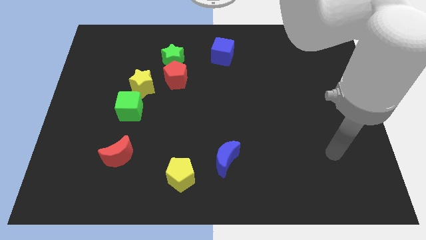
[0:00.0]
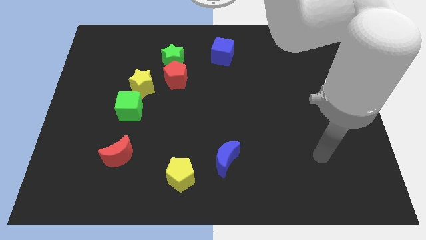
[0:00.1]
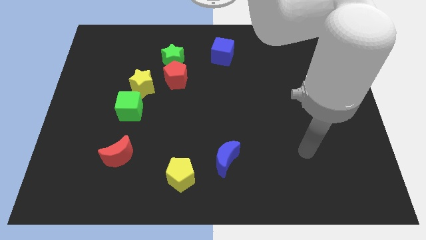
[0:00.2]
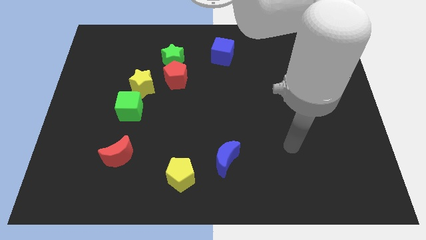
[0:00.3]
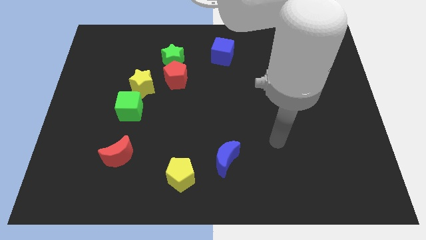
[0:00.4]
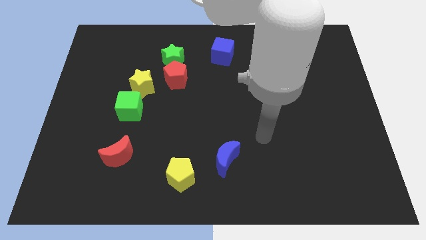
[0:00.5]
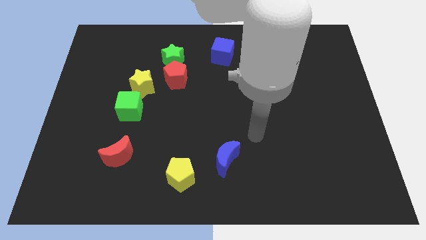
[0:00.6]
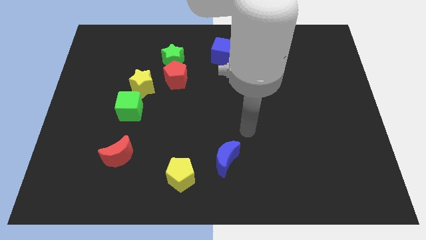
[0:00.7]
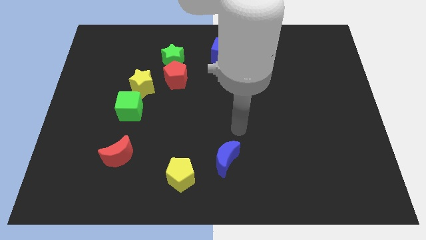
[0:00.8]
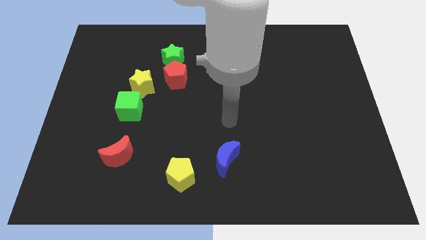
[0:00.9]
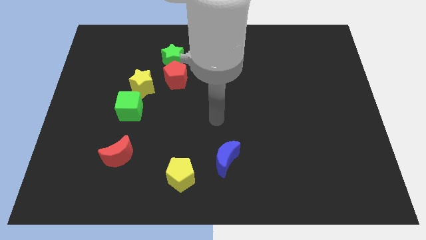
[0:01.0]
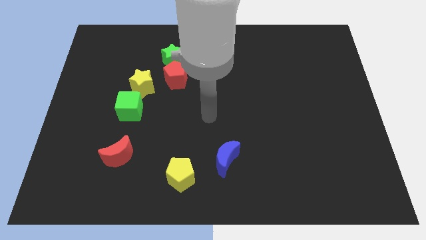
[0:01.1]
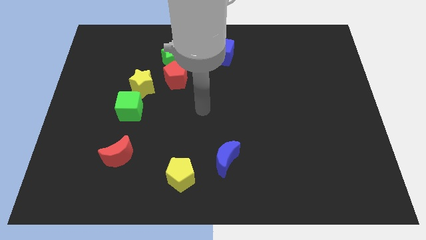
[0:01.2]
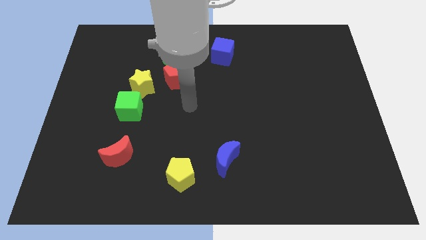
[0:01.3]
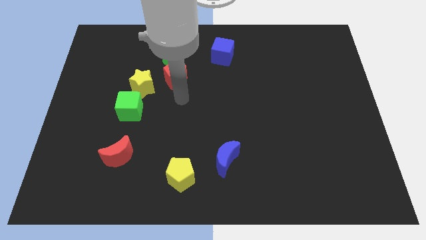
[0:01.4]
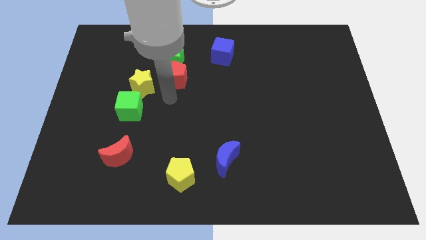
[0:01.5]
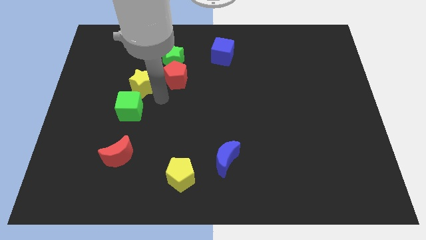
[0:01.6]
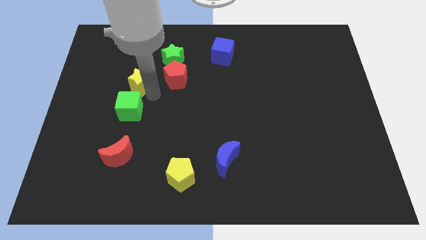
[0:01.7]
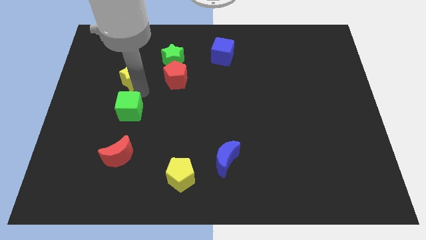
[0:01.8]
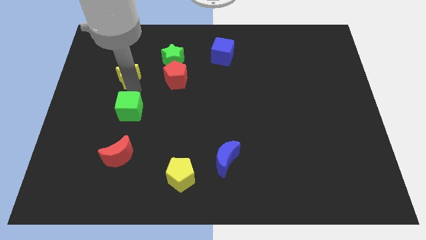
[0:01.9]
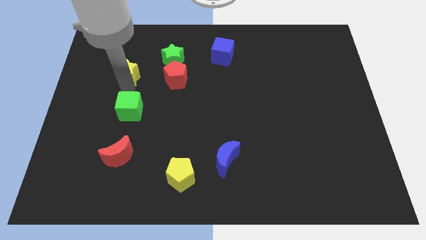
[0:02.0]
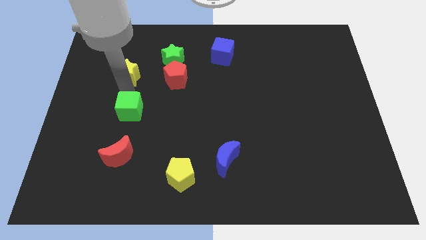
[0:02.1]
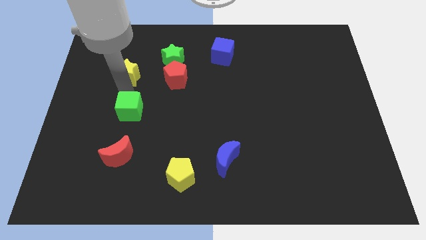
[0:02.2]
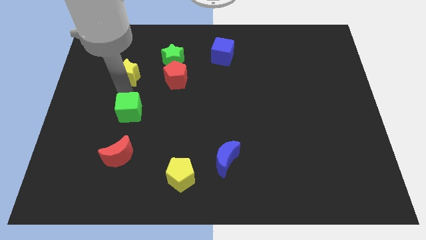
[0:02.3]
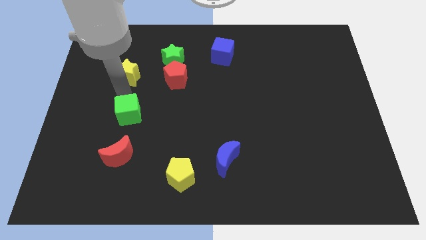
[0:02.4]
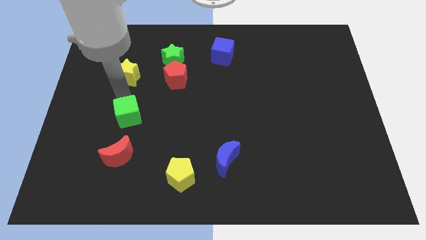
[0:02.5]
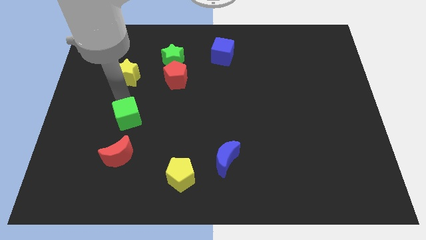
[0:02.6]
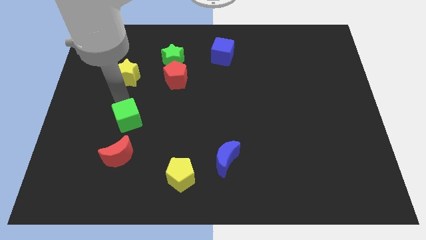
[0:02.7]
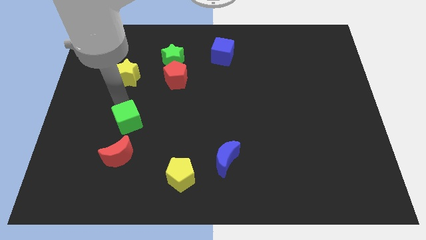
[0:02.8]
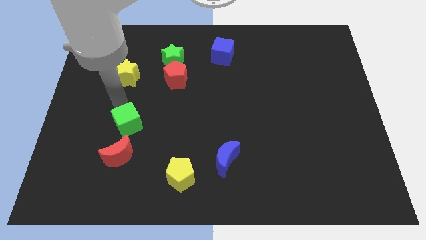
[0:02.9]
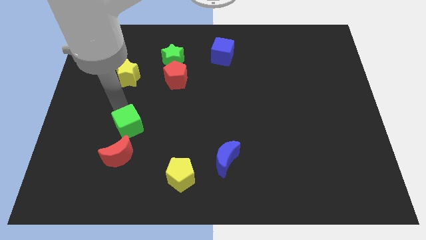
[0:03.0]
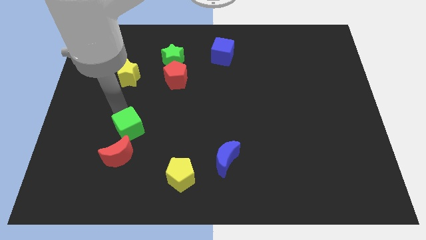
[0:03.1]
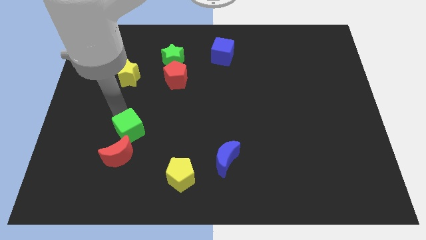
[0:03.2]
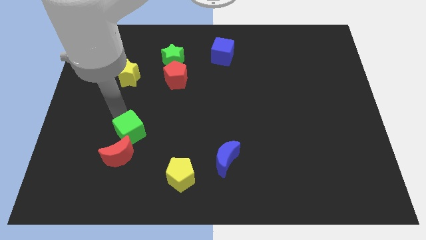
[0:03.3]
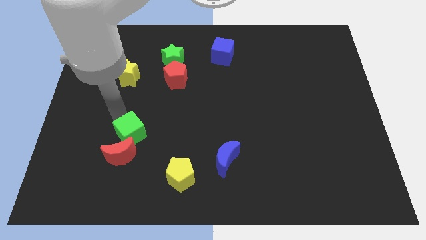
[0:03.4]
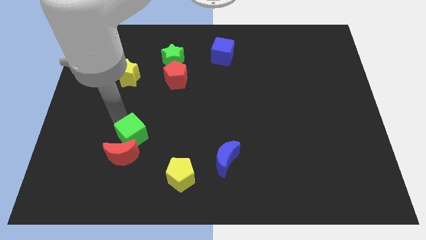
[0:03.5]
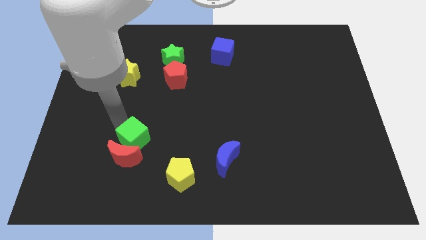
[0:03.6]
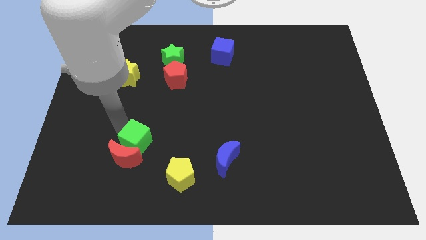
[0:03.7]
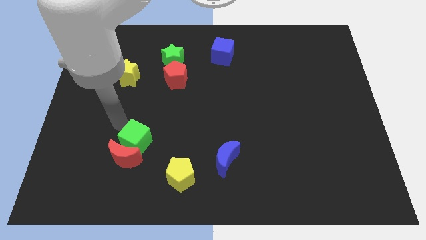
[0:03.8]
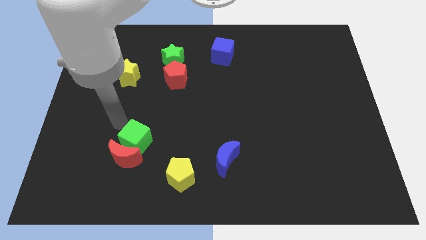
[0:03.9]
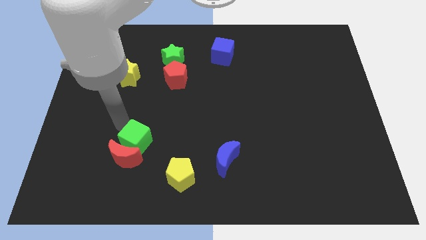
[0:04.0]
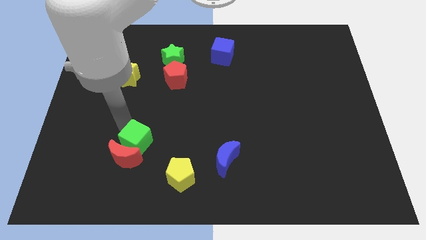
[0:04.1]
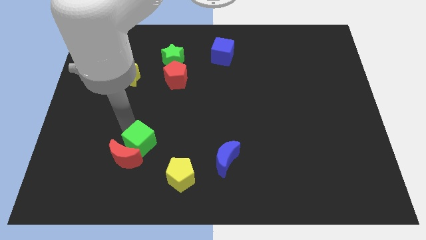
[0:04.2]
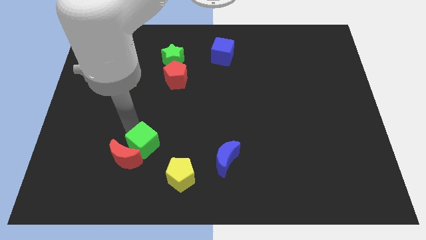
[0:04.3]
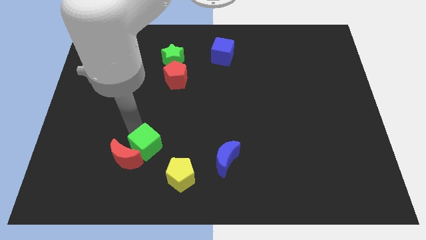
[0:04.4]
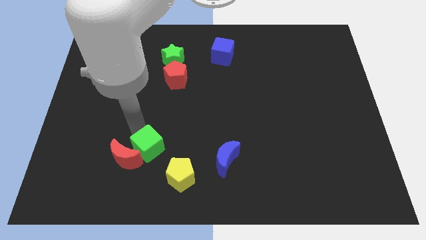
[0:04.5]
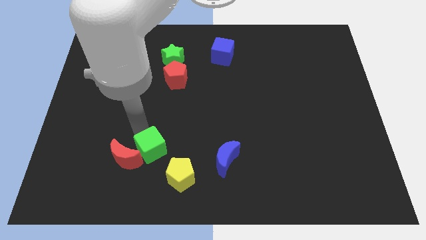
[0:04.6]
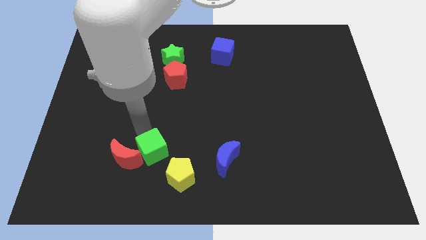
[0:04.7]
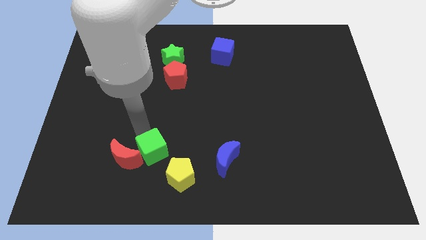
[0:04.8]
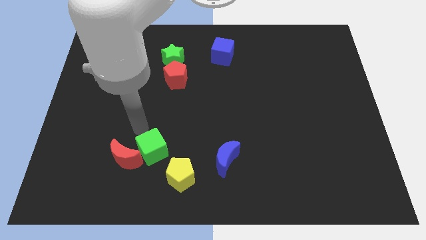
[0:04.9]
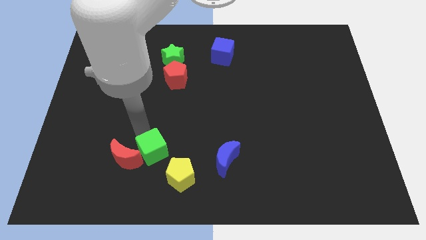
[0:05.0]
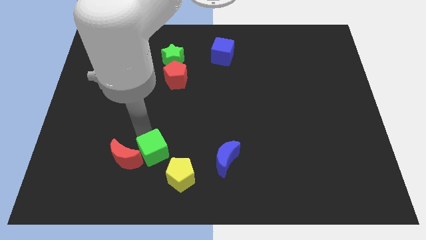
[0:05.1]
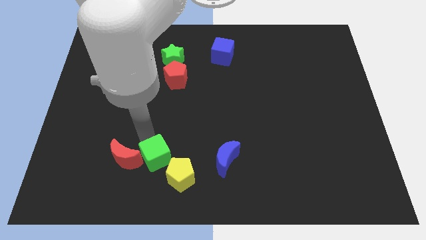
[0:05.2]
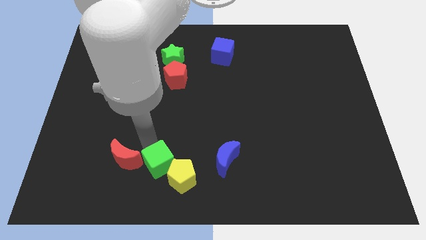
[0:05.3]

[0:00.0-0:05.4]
slide the green cube to the yellow pentagon

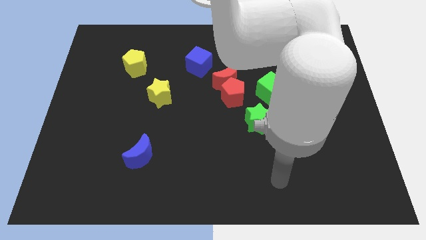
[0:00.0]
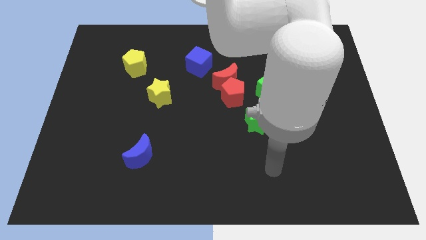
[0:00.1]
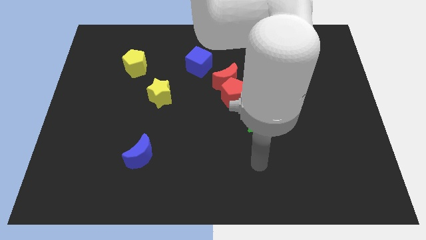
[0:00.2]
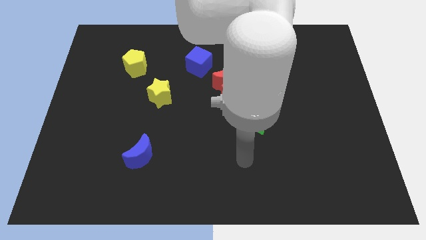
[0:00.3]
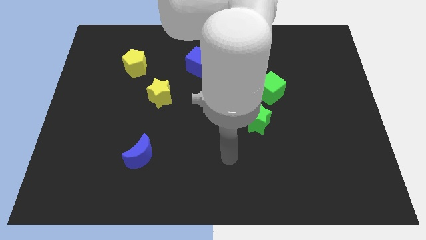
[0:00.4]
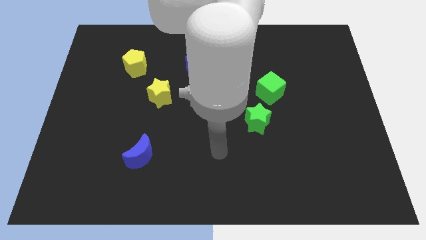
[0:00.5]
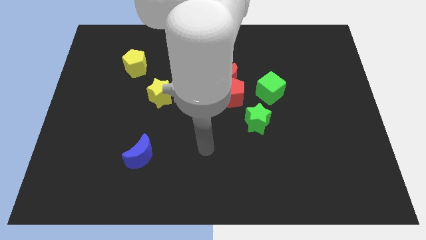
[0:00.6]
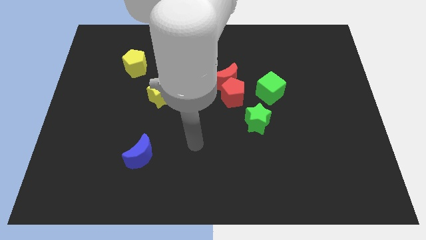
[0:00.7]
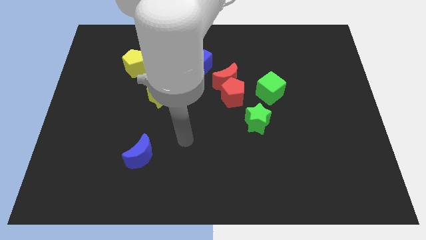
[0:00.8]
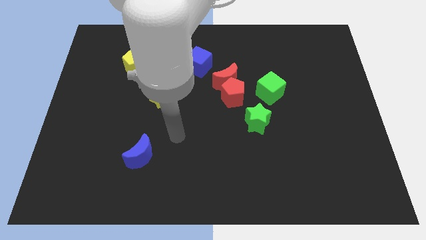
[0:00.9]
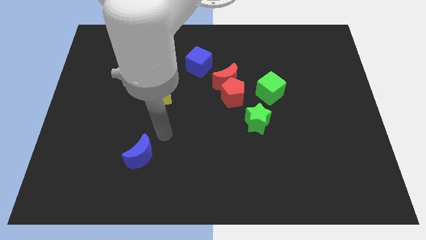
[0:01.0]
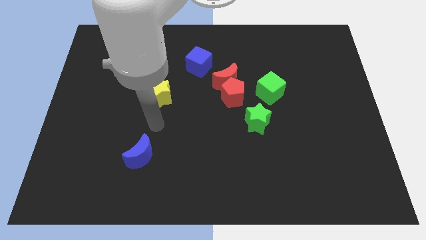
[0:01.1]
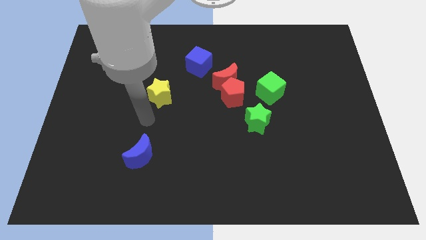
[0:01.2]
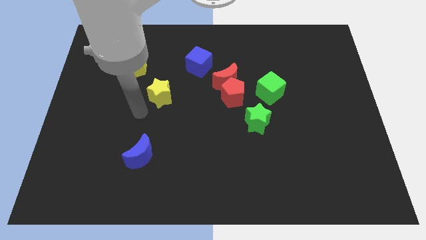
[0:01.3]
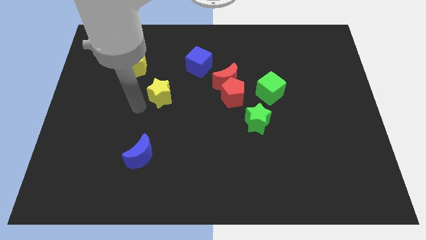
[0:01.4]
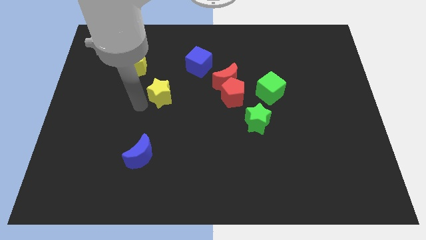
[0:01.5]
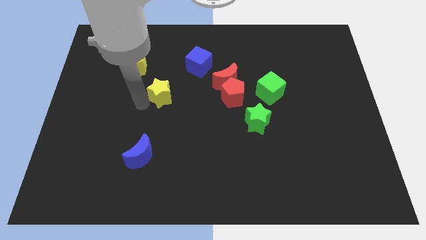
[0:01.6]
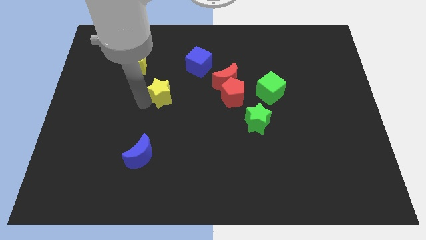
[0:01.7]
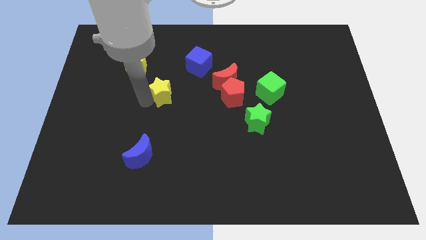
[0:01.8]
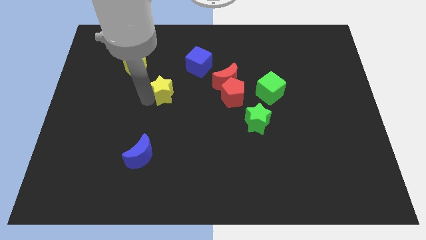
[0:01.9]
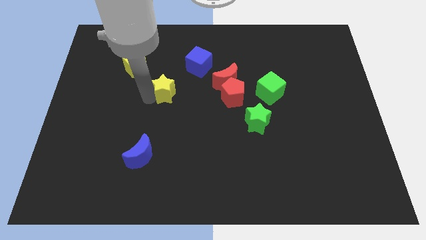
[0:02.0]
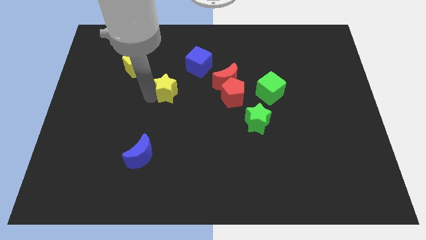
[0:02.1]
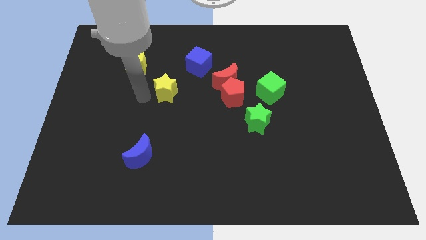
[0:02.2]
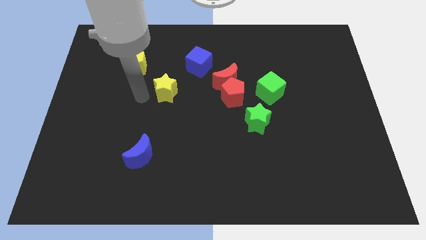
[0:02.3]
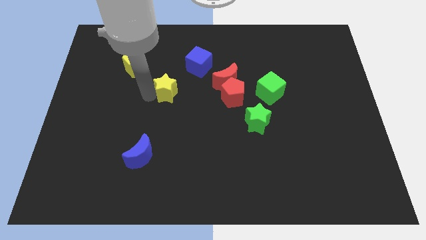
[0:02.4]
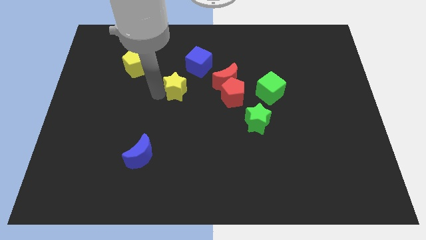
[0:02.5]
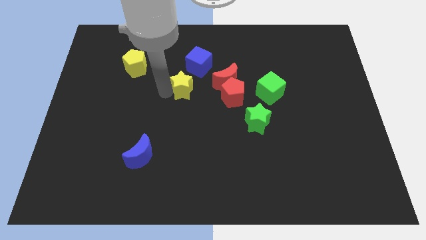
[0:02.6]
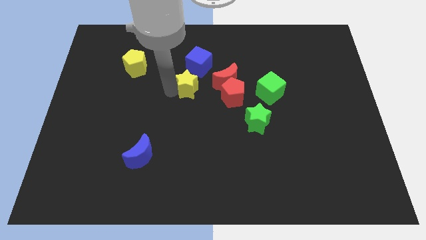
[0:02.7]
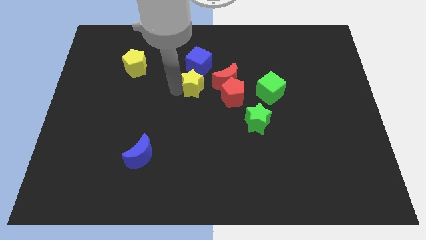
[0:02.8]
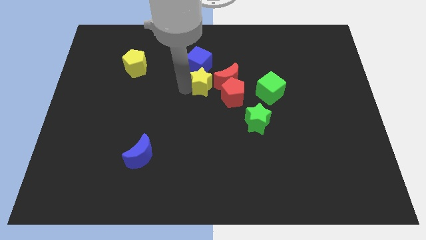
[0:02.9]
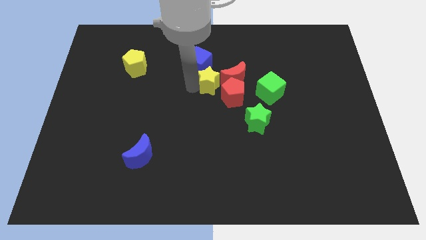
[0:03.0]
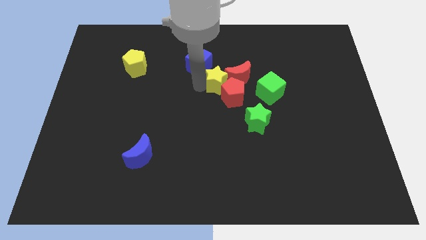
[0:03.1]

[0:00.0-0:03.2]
put the yellow star close to the red moon
